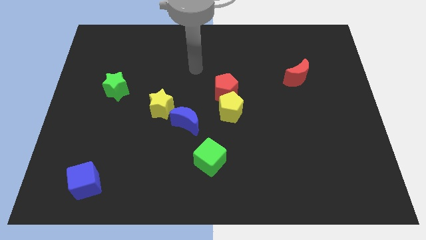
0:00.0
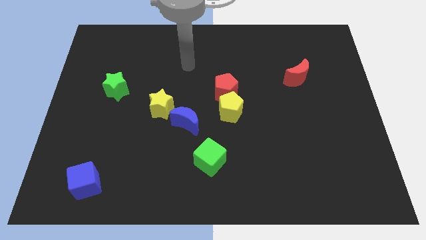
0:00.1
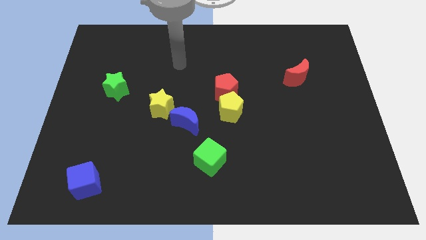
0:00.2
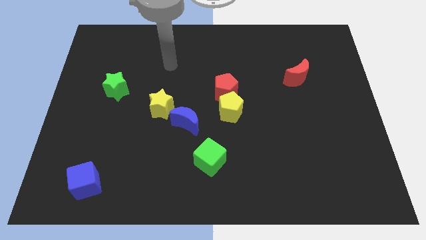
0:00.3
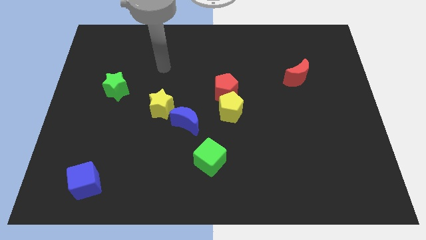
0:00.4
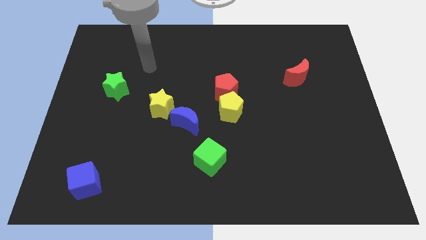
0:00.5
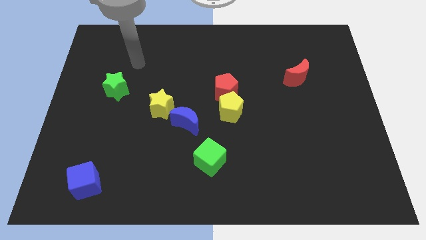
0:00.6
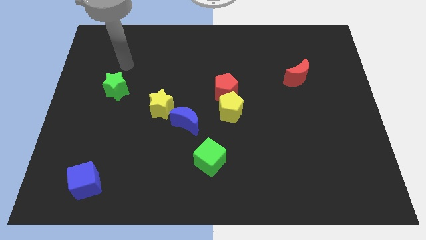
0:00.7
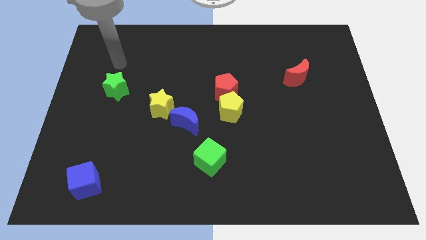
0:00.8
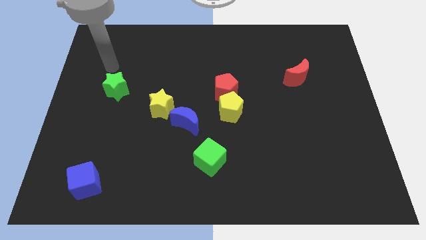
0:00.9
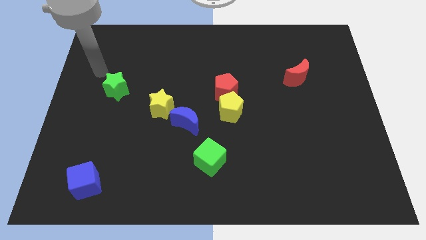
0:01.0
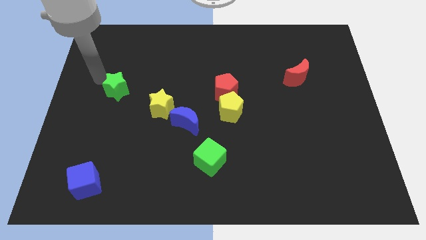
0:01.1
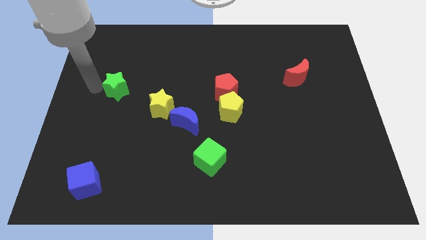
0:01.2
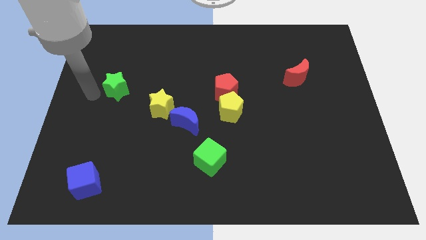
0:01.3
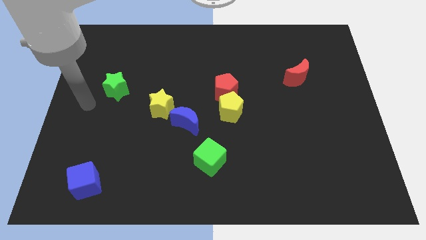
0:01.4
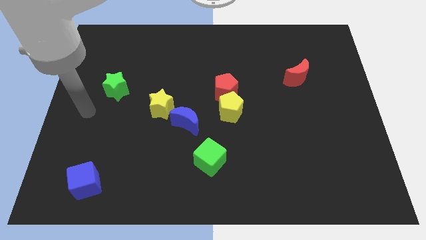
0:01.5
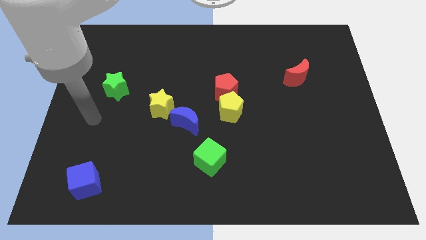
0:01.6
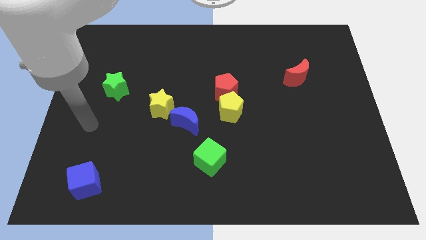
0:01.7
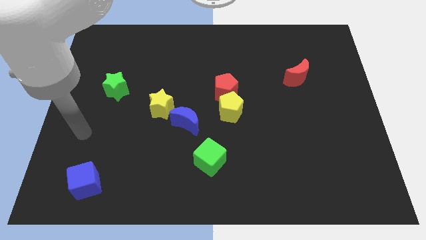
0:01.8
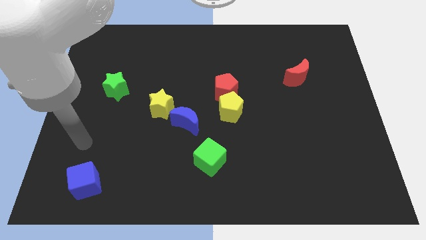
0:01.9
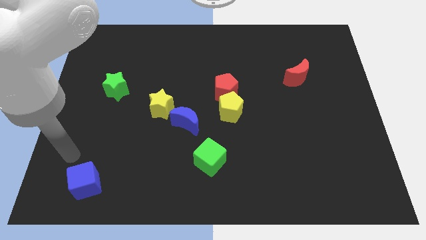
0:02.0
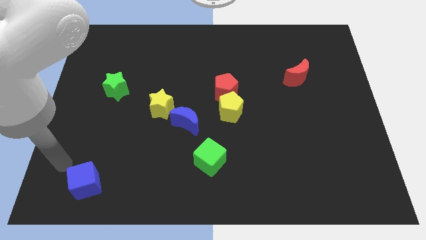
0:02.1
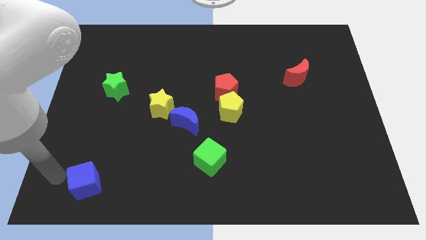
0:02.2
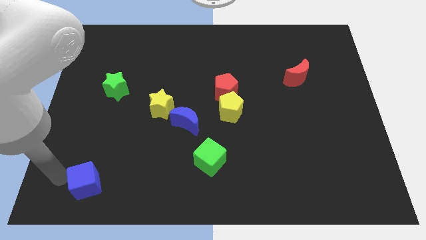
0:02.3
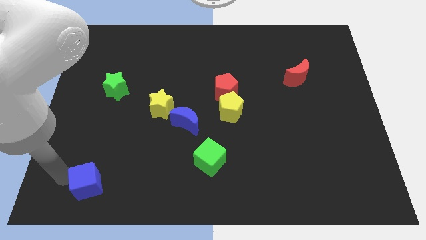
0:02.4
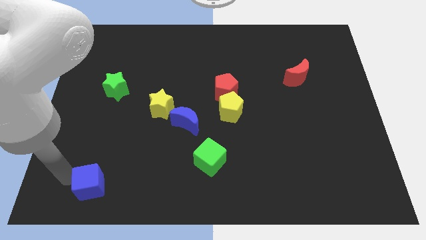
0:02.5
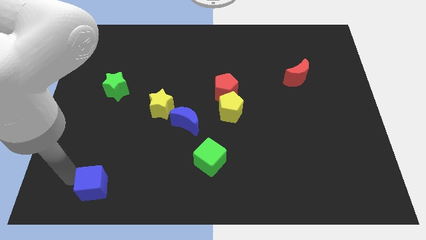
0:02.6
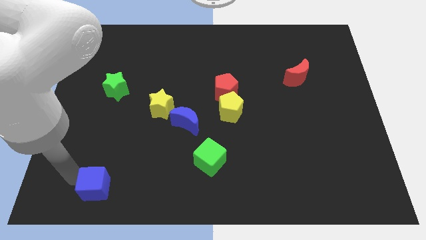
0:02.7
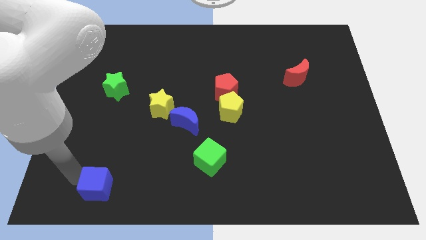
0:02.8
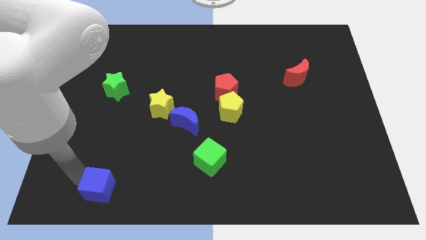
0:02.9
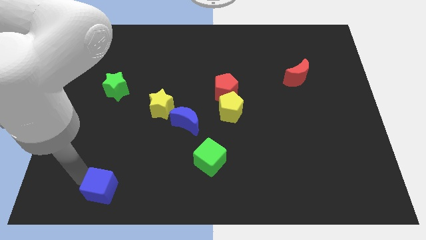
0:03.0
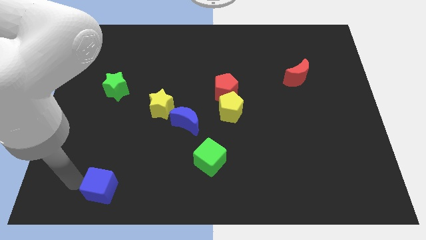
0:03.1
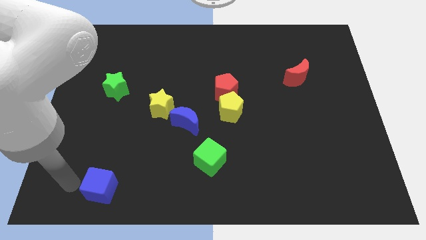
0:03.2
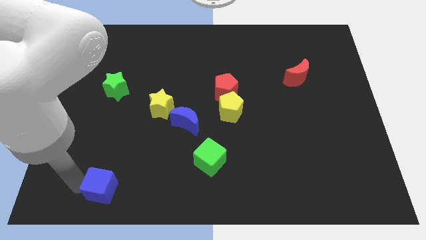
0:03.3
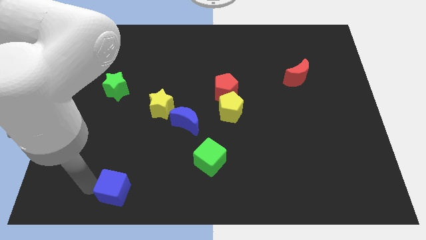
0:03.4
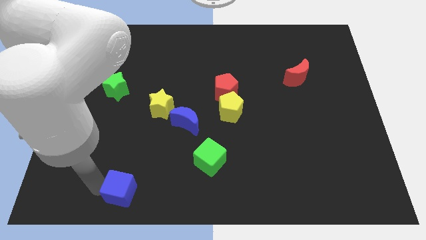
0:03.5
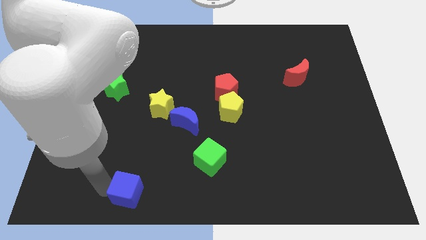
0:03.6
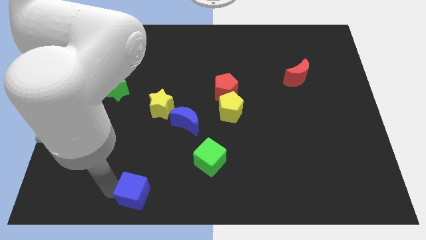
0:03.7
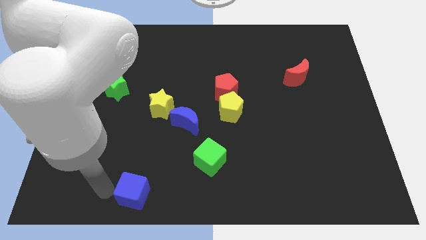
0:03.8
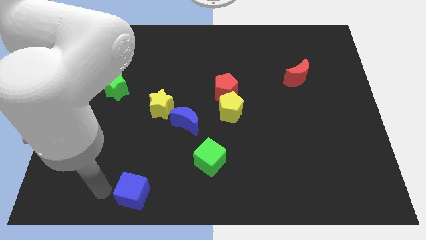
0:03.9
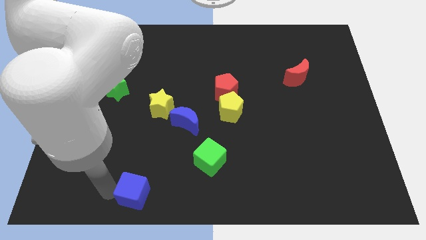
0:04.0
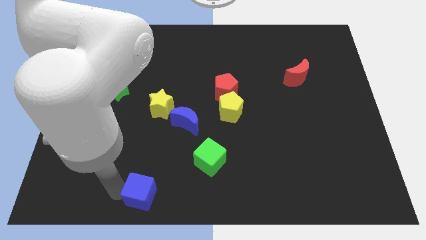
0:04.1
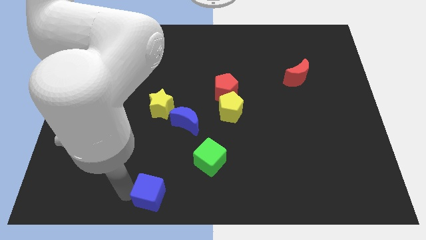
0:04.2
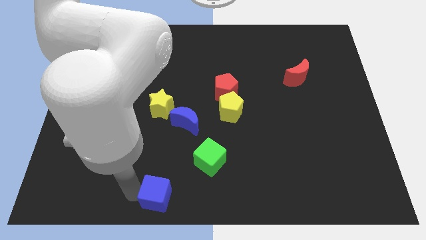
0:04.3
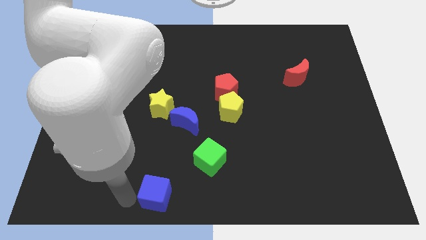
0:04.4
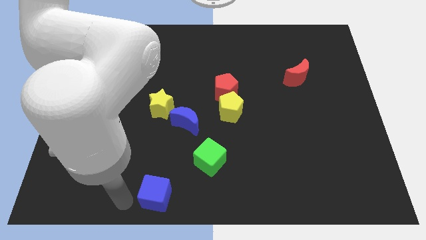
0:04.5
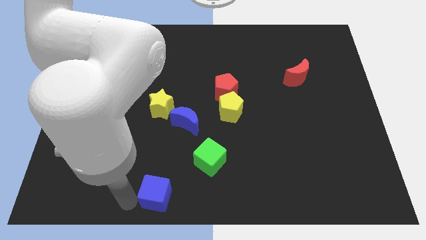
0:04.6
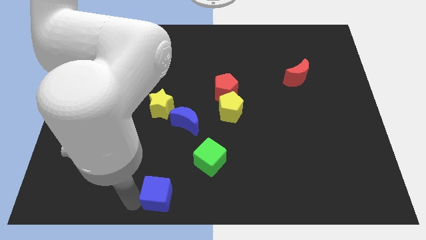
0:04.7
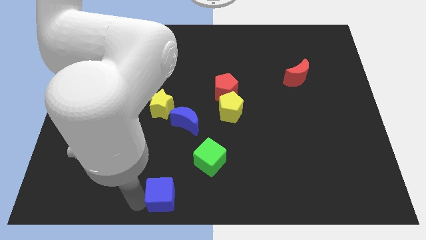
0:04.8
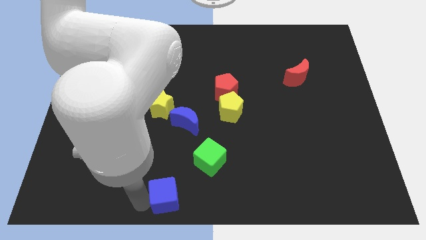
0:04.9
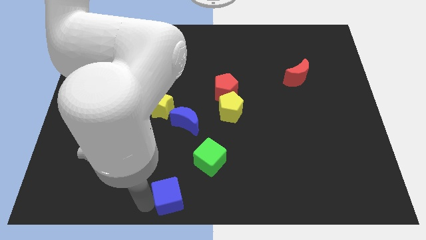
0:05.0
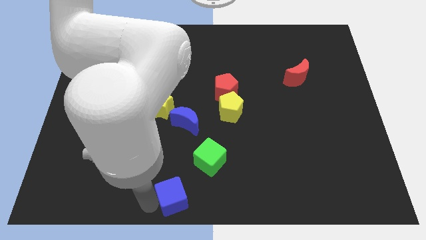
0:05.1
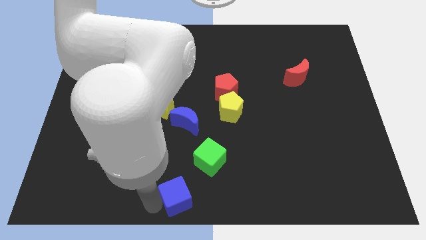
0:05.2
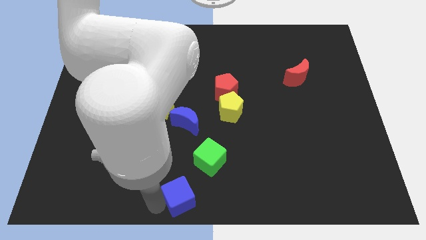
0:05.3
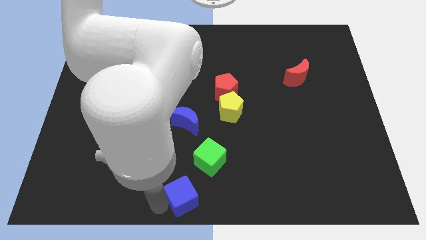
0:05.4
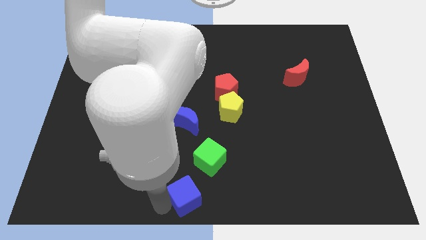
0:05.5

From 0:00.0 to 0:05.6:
move the blue cube right

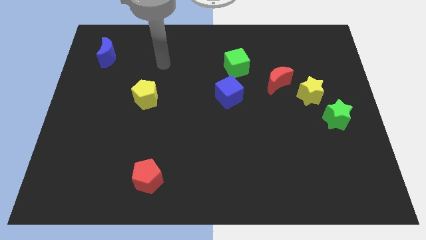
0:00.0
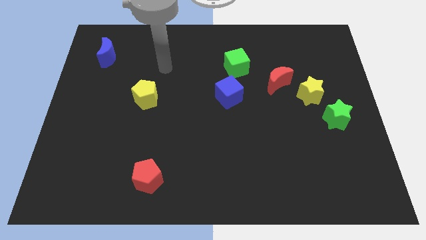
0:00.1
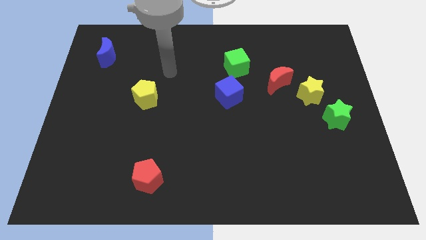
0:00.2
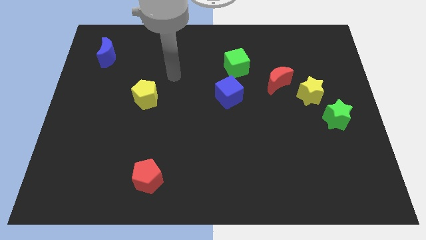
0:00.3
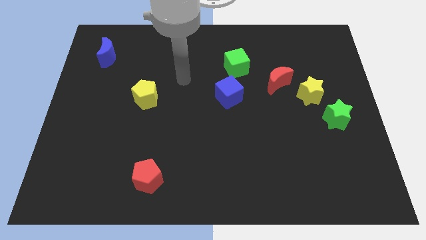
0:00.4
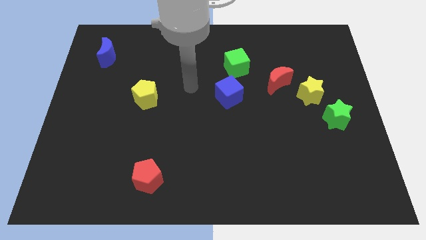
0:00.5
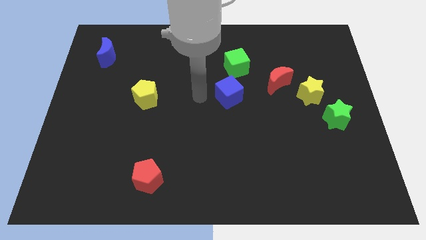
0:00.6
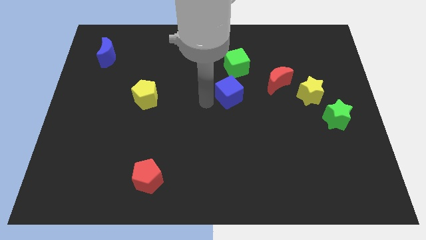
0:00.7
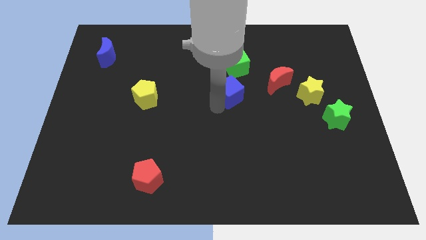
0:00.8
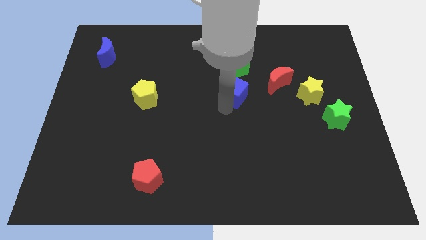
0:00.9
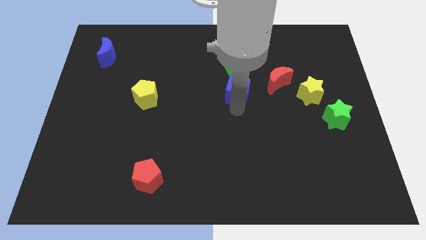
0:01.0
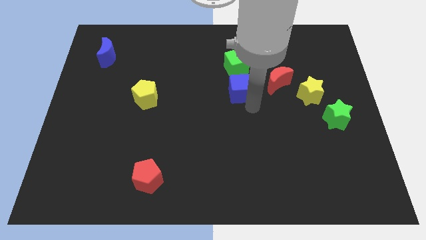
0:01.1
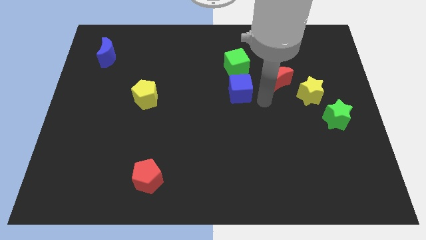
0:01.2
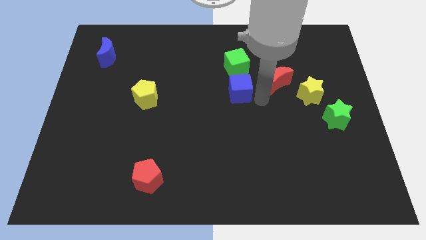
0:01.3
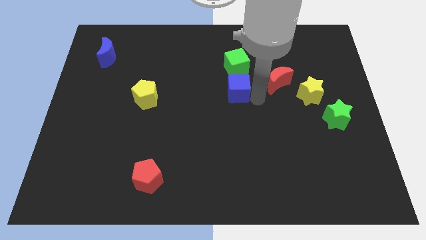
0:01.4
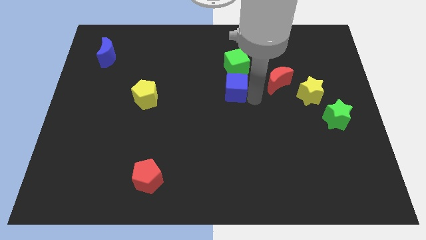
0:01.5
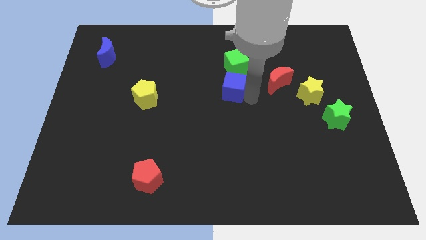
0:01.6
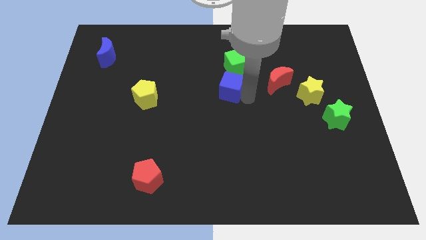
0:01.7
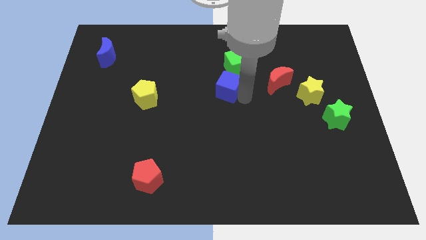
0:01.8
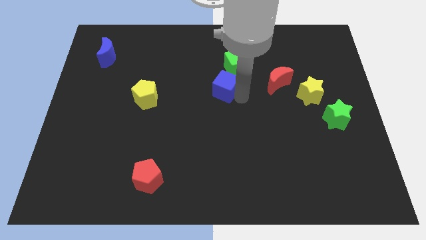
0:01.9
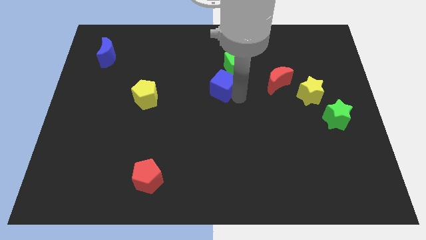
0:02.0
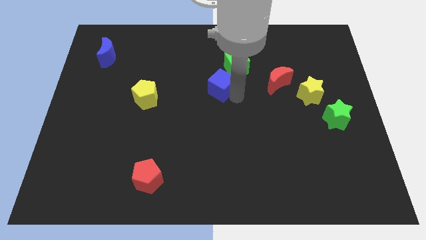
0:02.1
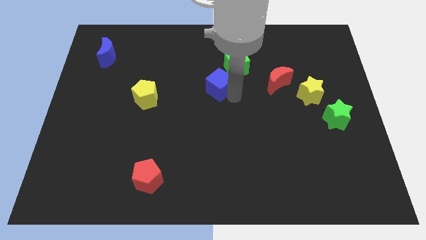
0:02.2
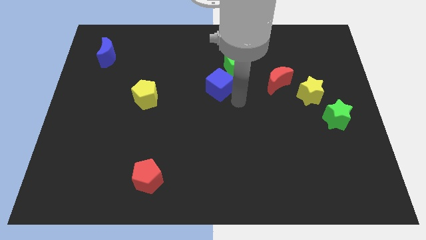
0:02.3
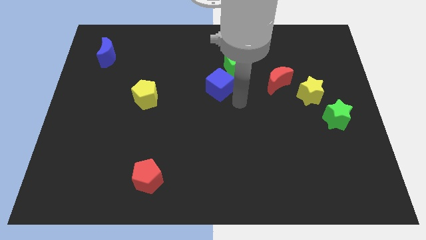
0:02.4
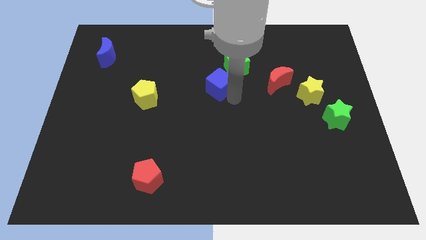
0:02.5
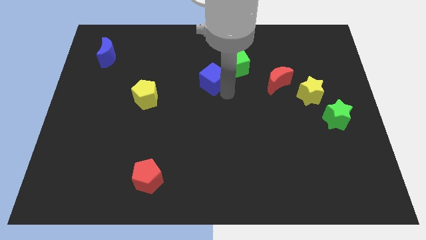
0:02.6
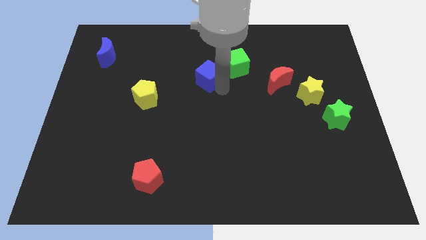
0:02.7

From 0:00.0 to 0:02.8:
slightly move the blue cube up and to the left diagonally

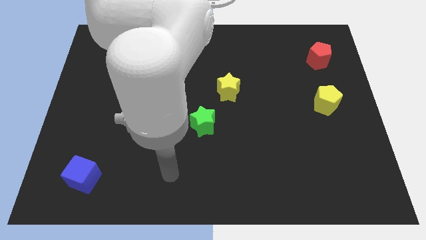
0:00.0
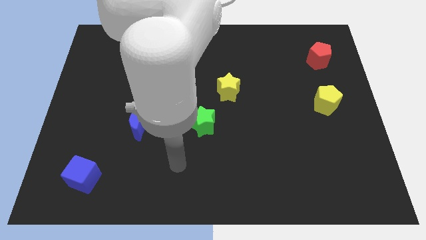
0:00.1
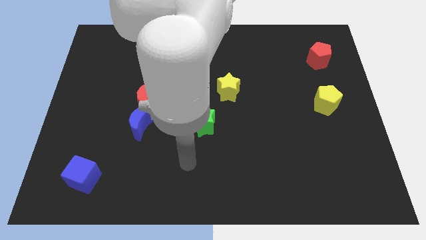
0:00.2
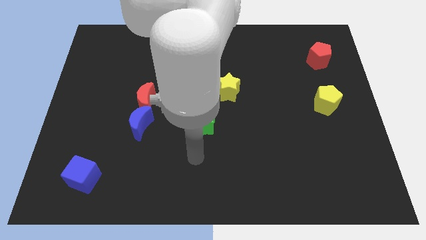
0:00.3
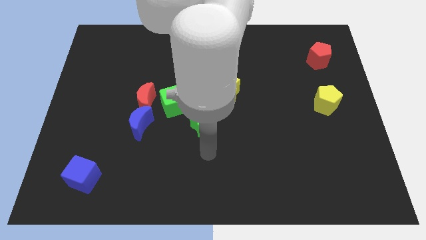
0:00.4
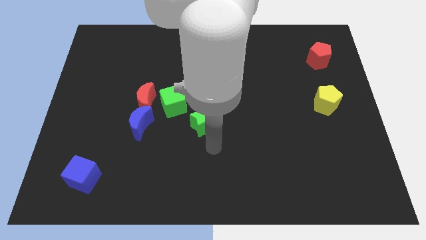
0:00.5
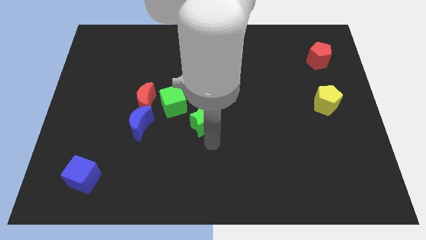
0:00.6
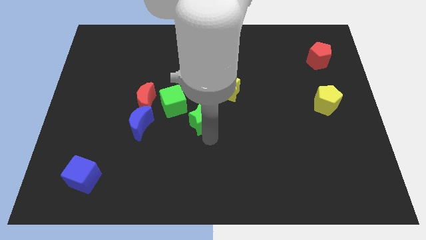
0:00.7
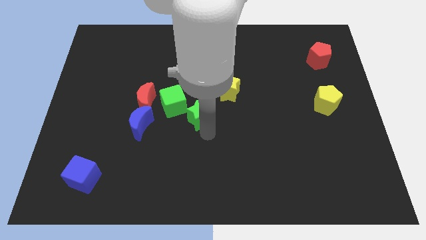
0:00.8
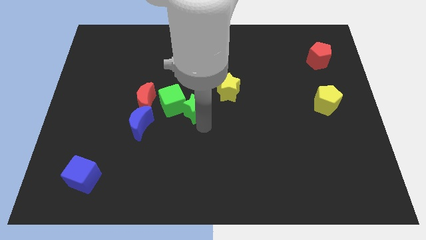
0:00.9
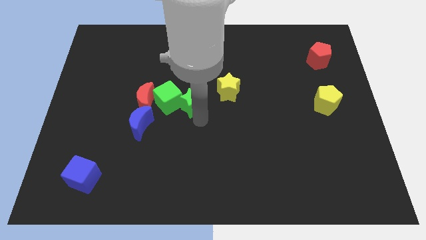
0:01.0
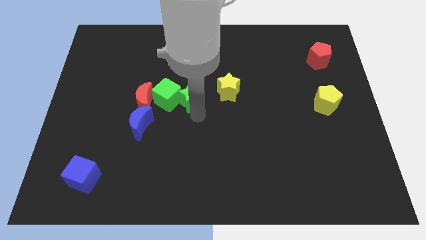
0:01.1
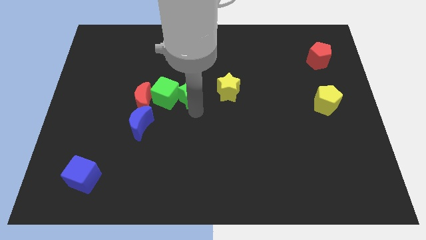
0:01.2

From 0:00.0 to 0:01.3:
slightly push the green star upwards and to the left diagonally
